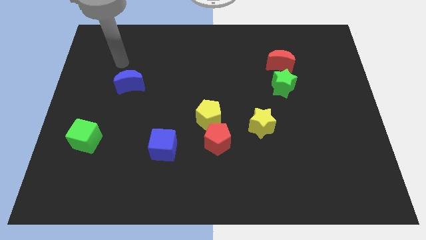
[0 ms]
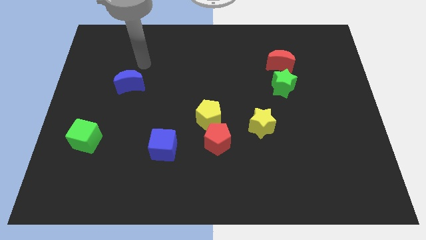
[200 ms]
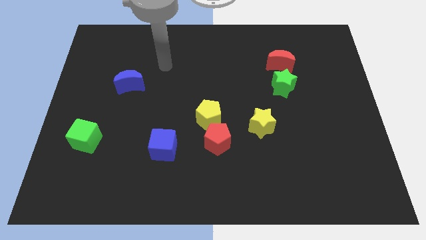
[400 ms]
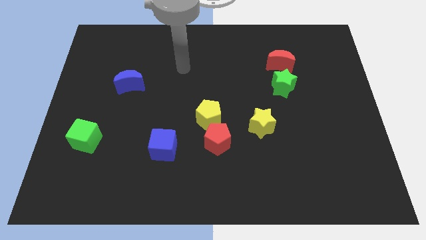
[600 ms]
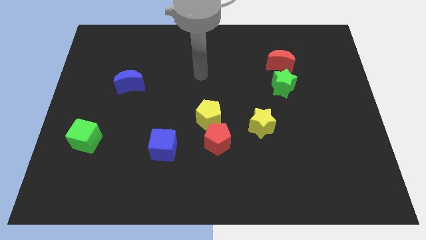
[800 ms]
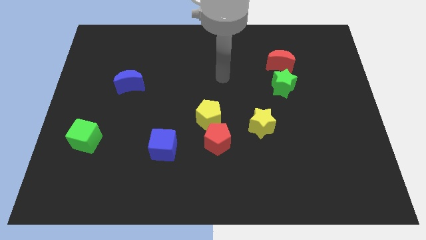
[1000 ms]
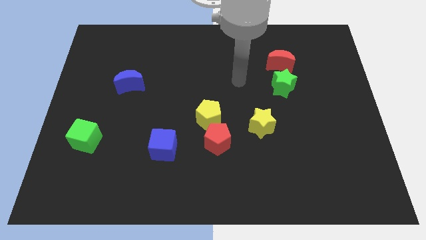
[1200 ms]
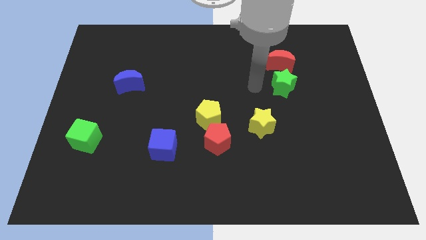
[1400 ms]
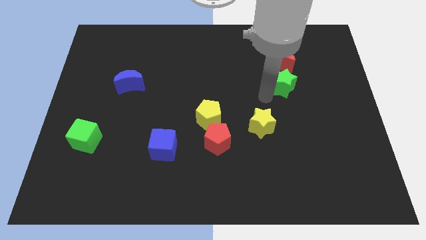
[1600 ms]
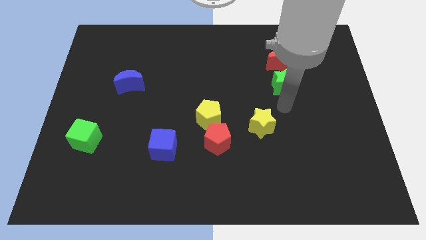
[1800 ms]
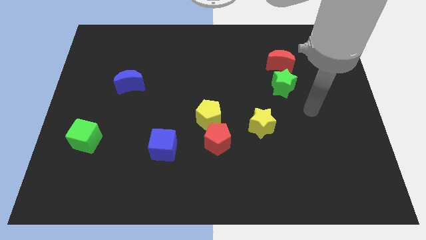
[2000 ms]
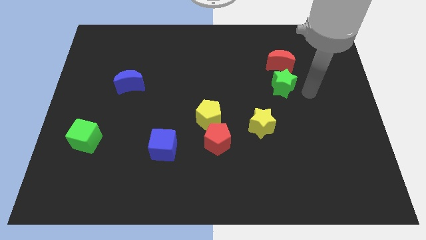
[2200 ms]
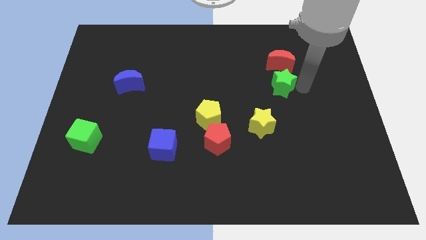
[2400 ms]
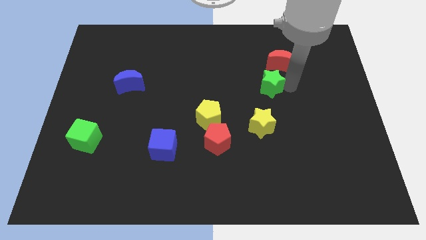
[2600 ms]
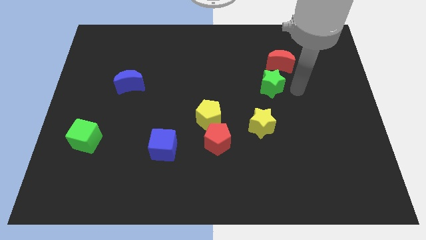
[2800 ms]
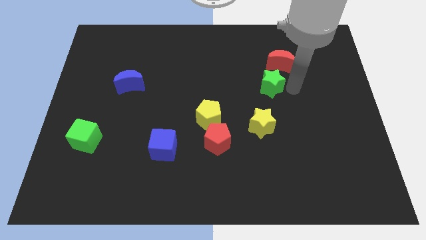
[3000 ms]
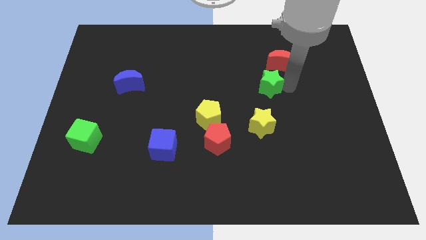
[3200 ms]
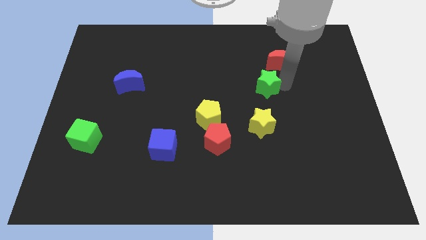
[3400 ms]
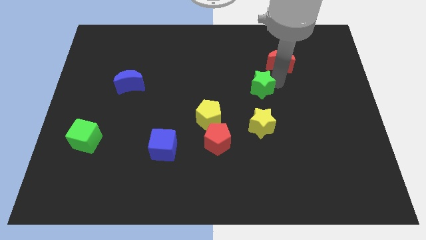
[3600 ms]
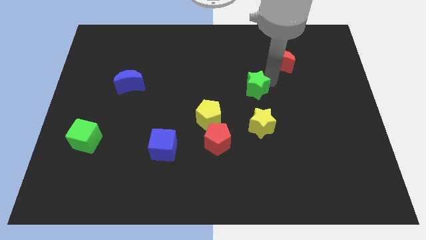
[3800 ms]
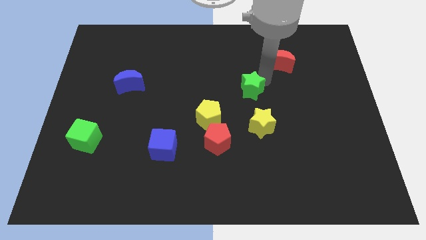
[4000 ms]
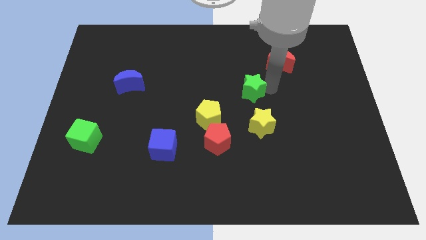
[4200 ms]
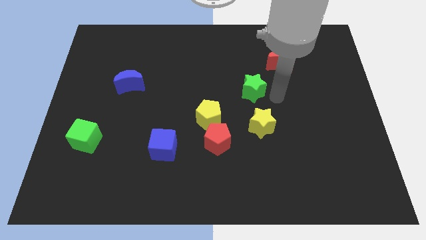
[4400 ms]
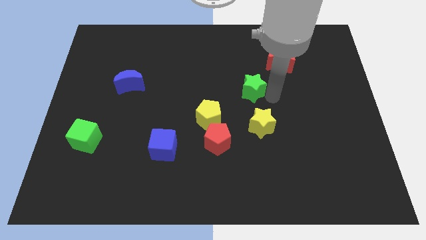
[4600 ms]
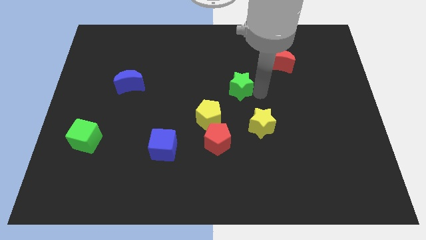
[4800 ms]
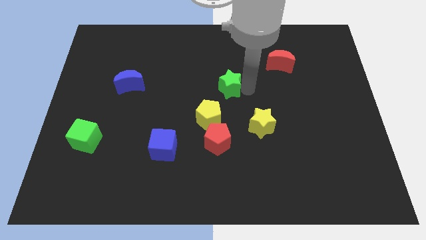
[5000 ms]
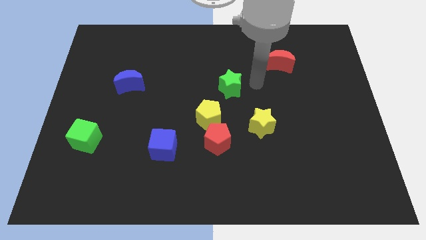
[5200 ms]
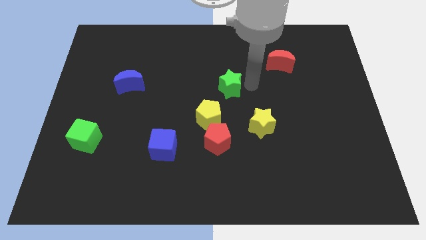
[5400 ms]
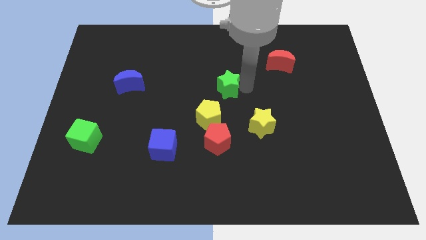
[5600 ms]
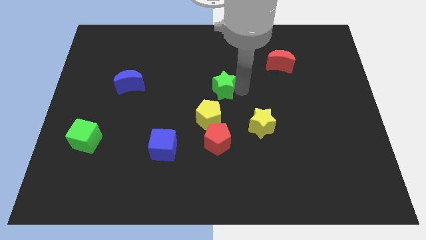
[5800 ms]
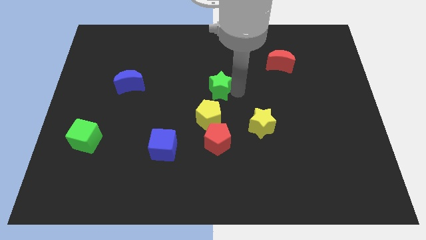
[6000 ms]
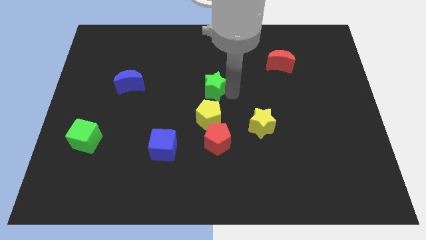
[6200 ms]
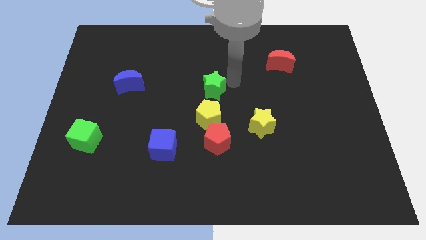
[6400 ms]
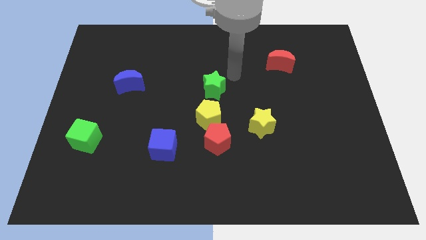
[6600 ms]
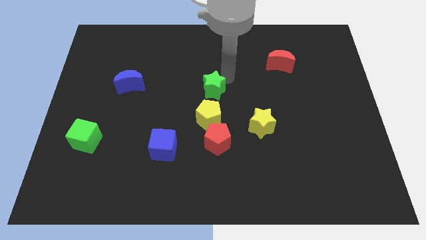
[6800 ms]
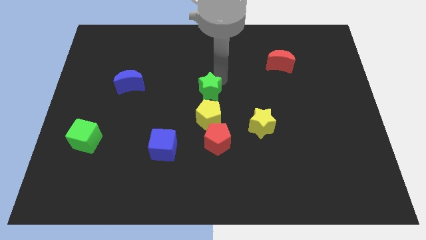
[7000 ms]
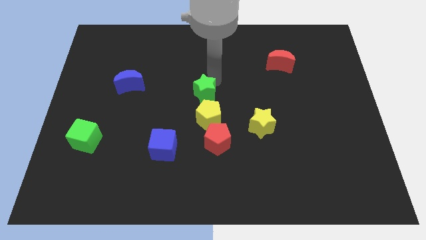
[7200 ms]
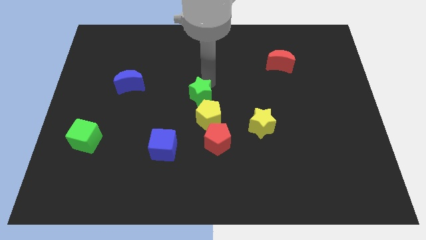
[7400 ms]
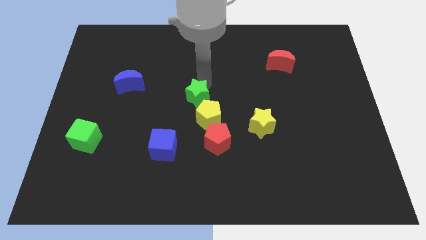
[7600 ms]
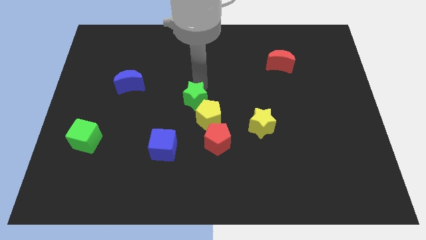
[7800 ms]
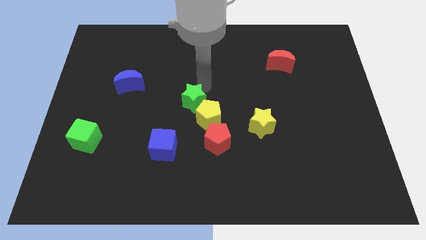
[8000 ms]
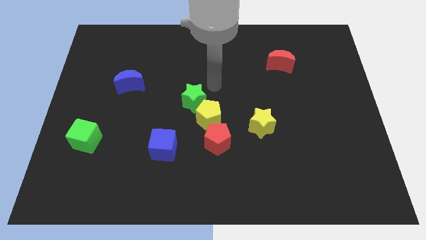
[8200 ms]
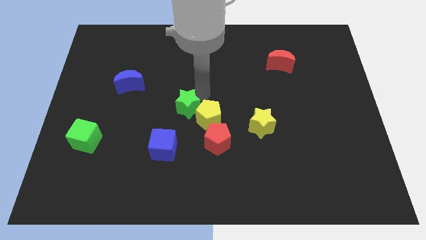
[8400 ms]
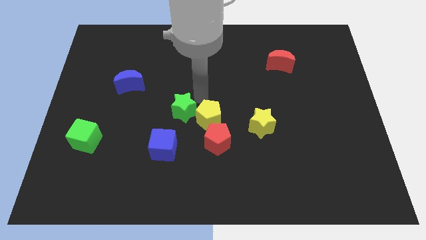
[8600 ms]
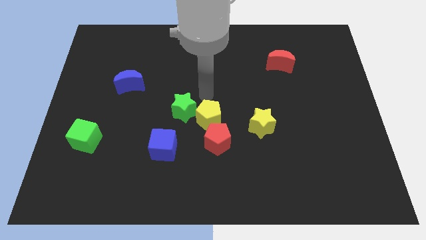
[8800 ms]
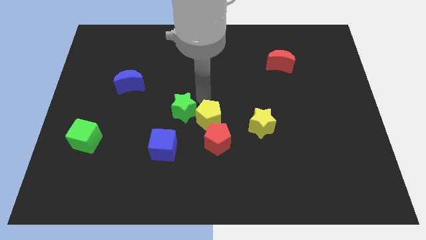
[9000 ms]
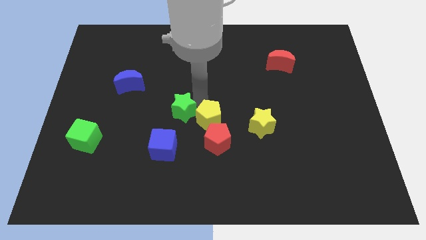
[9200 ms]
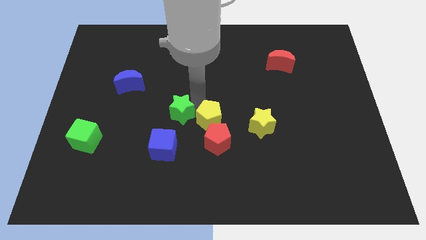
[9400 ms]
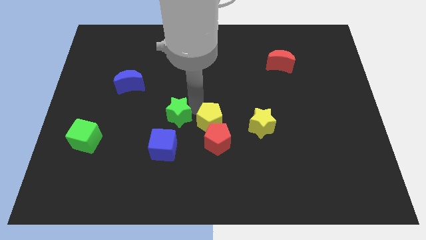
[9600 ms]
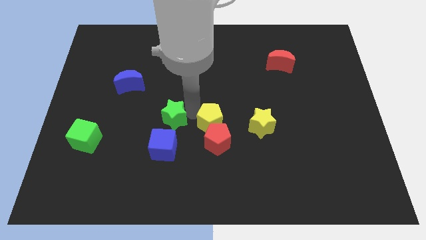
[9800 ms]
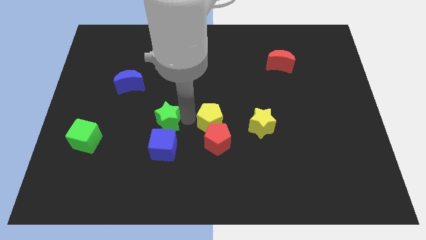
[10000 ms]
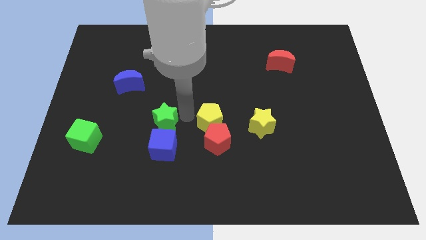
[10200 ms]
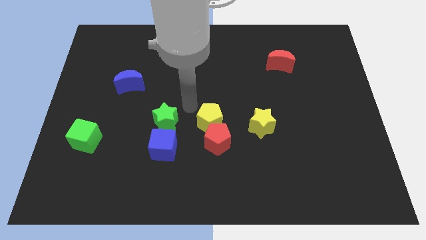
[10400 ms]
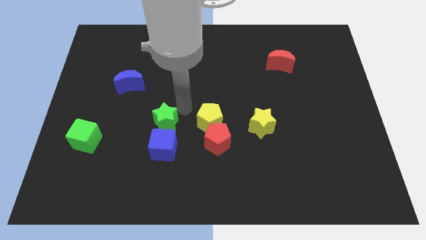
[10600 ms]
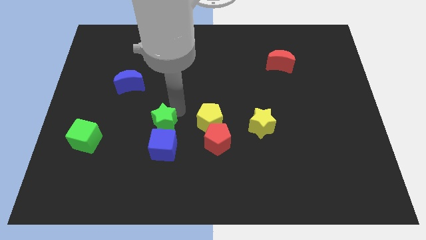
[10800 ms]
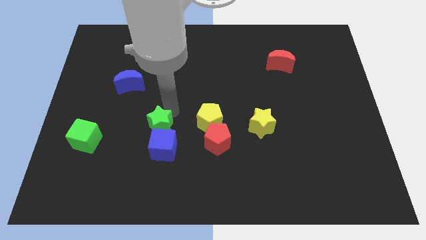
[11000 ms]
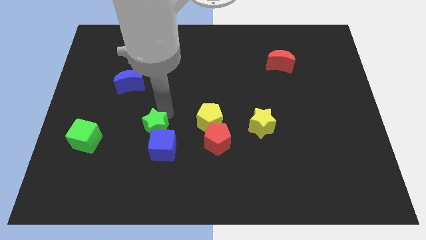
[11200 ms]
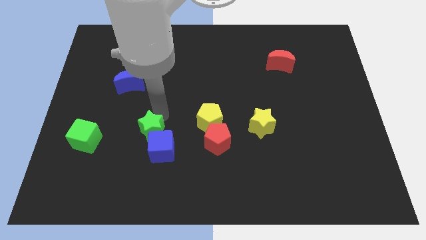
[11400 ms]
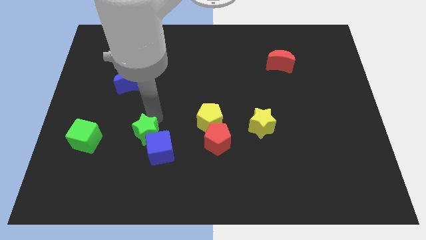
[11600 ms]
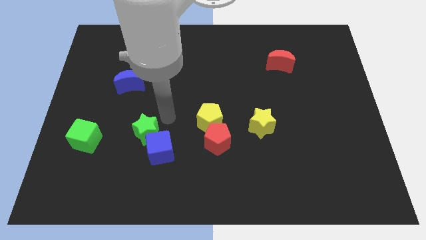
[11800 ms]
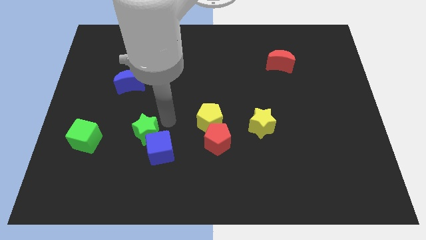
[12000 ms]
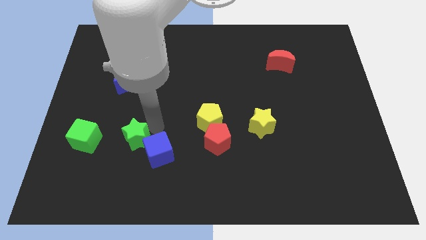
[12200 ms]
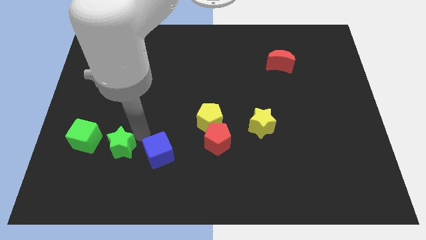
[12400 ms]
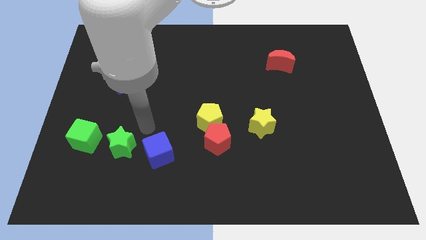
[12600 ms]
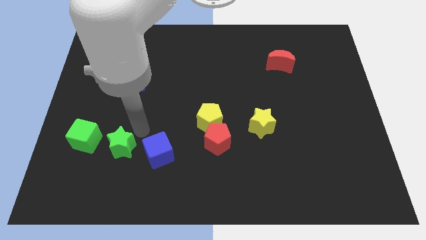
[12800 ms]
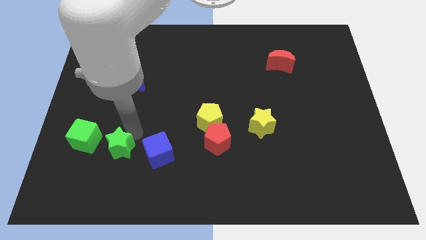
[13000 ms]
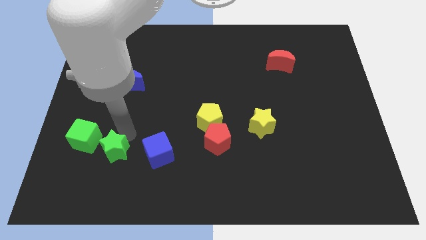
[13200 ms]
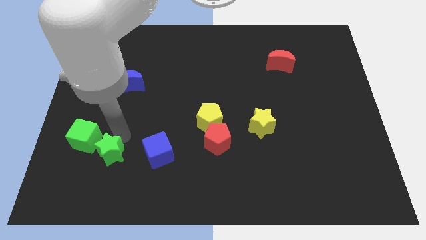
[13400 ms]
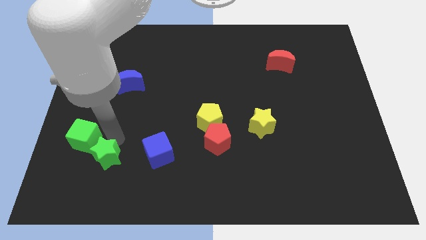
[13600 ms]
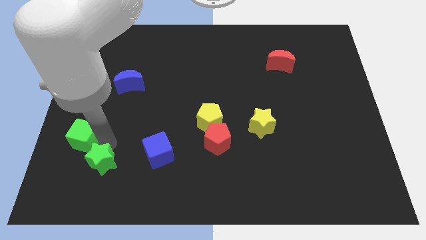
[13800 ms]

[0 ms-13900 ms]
put the green star to the bottom side of the green cube
